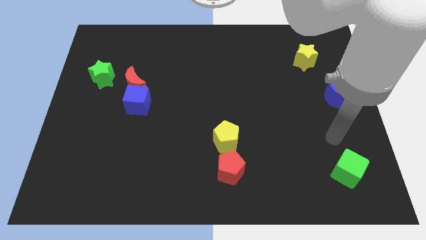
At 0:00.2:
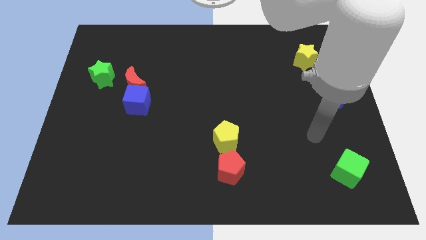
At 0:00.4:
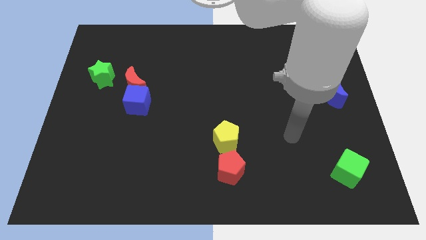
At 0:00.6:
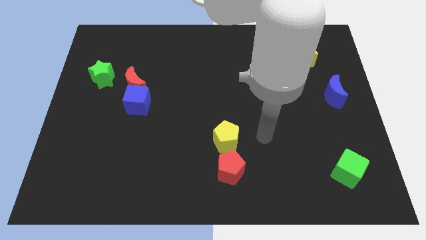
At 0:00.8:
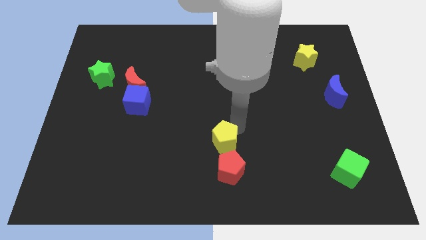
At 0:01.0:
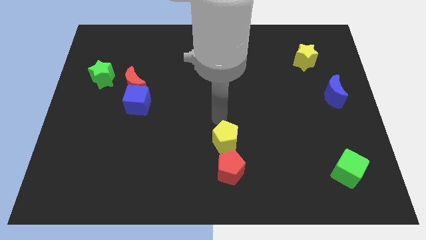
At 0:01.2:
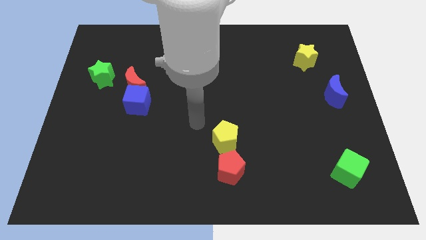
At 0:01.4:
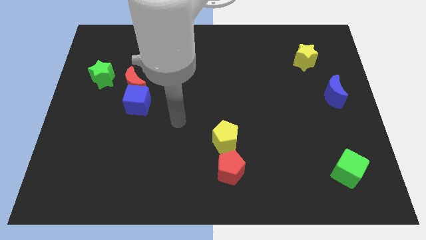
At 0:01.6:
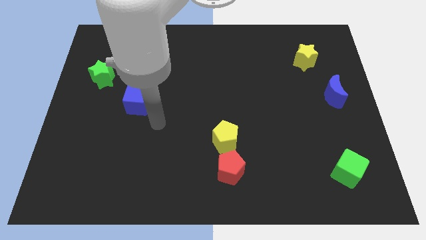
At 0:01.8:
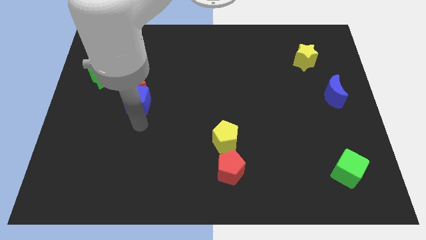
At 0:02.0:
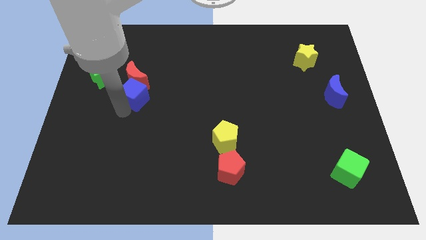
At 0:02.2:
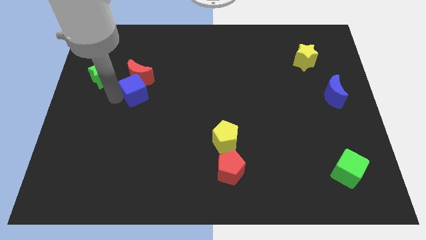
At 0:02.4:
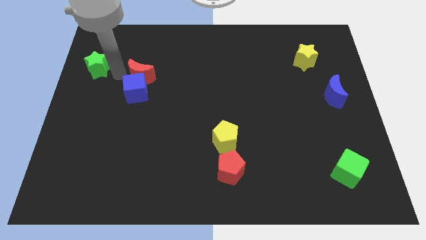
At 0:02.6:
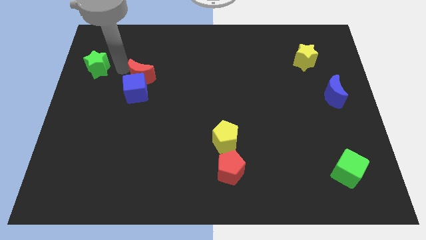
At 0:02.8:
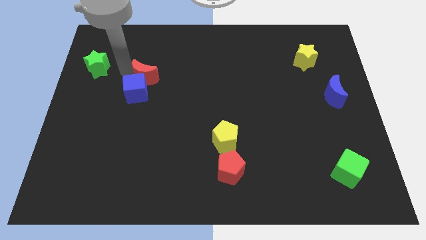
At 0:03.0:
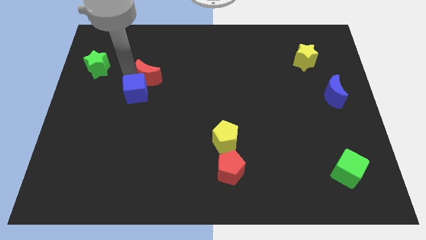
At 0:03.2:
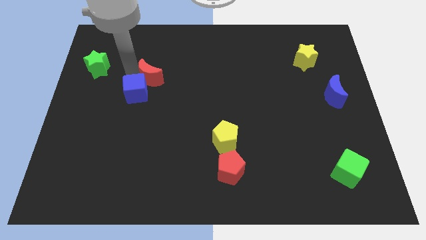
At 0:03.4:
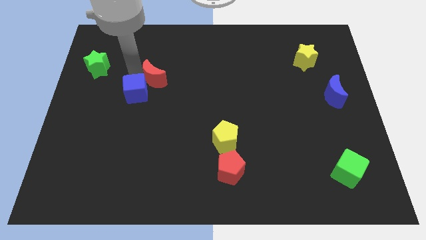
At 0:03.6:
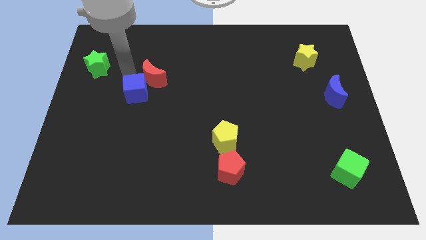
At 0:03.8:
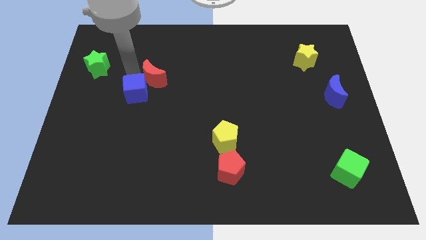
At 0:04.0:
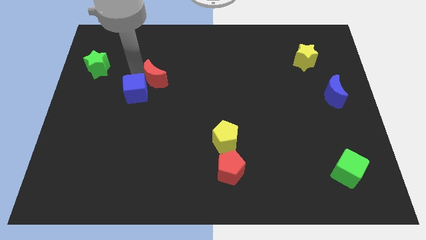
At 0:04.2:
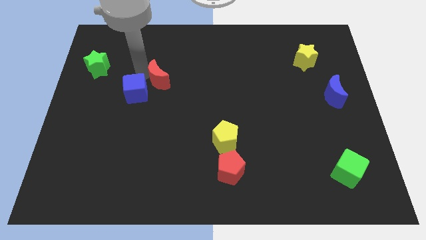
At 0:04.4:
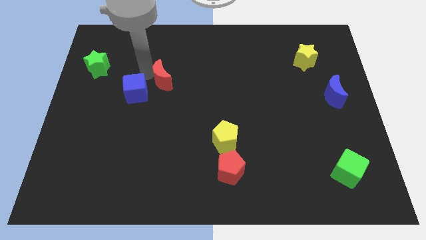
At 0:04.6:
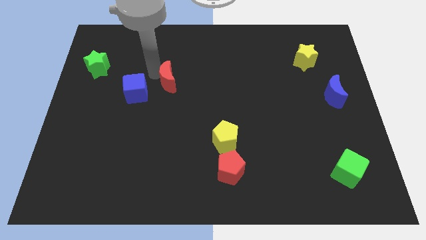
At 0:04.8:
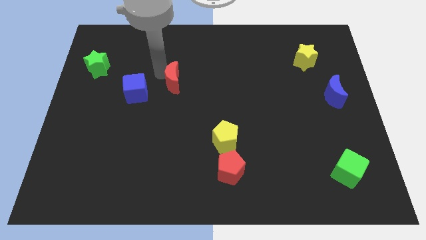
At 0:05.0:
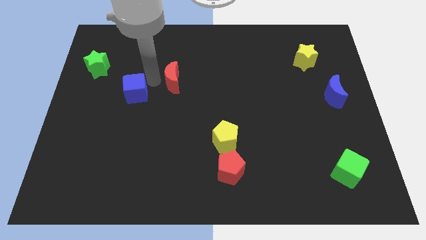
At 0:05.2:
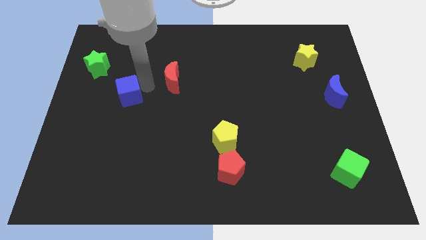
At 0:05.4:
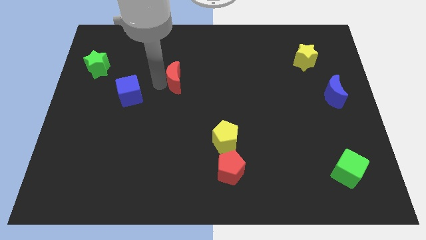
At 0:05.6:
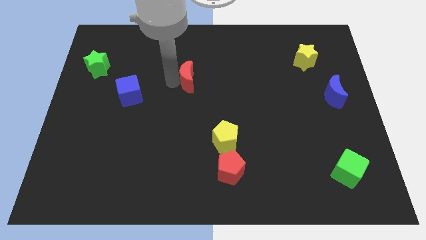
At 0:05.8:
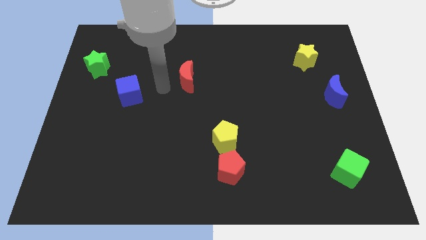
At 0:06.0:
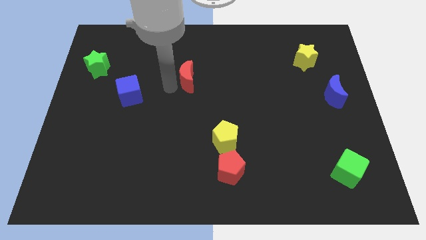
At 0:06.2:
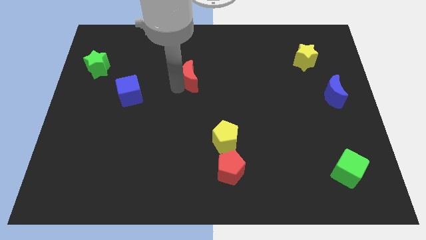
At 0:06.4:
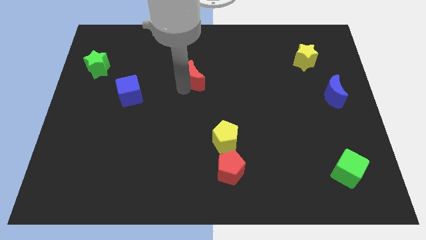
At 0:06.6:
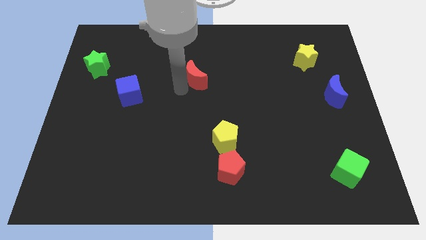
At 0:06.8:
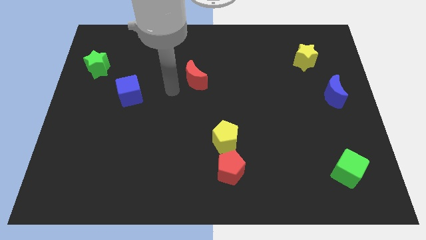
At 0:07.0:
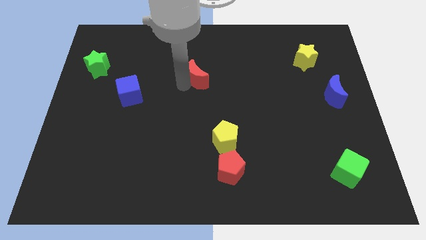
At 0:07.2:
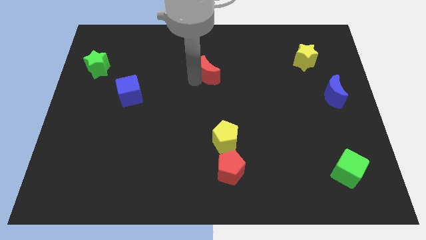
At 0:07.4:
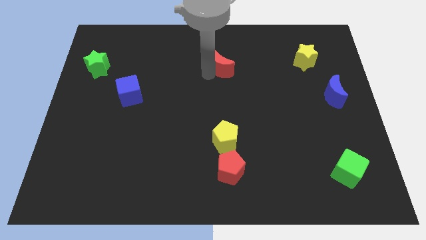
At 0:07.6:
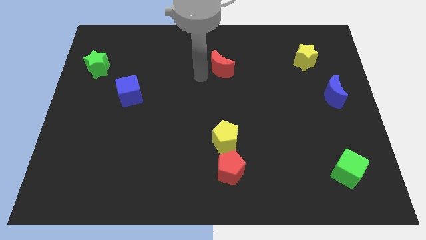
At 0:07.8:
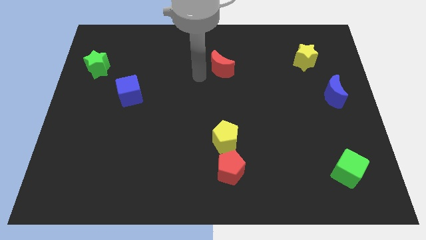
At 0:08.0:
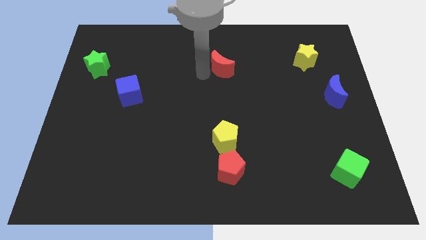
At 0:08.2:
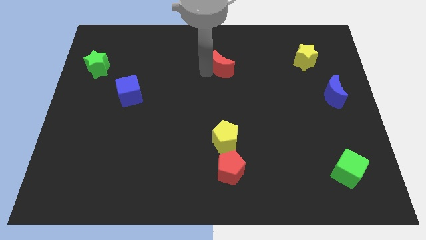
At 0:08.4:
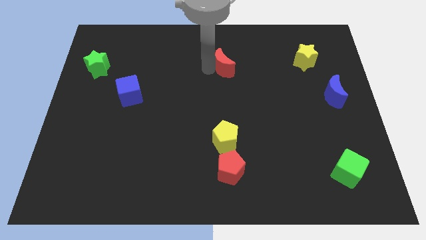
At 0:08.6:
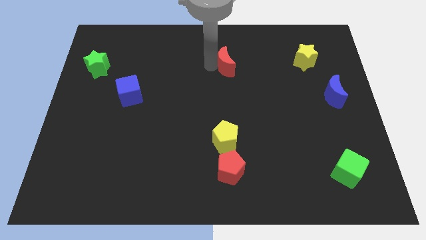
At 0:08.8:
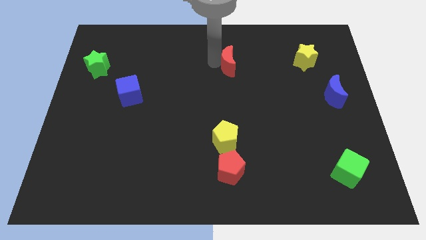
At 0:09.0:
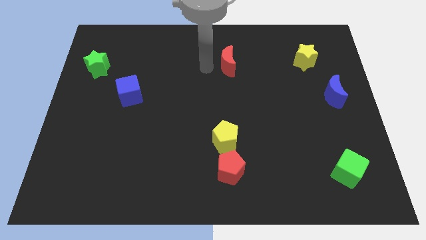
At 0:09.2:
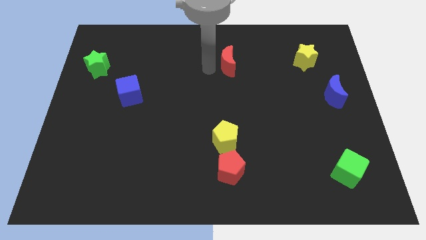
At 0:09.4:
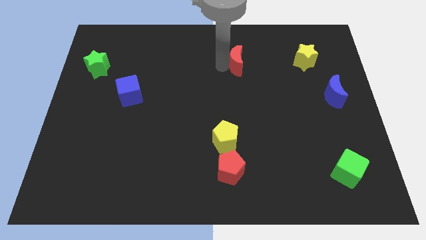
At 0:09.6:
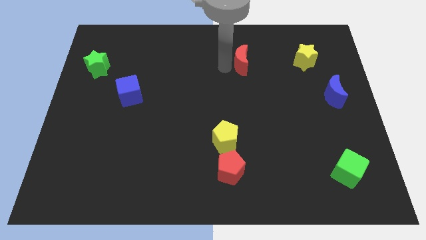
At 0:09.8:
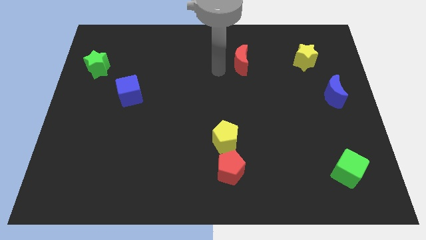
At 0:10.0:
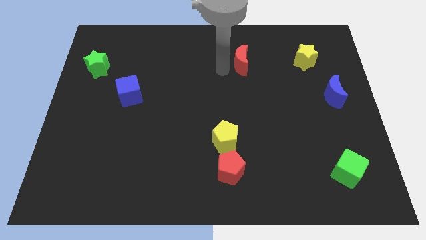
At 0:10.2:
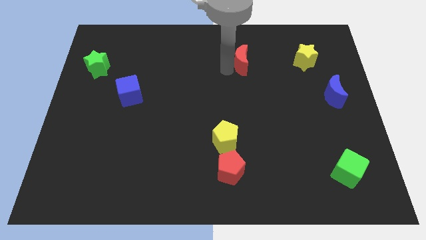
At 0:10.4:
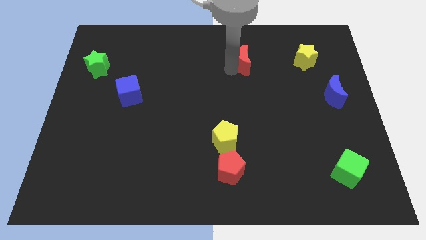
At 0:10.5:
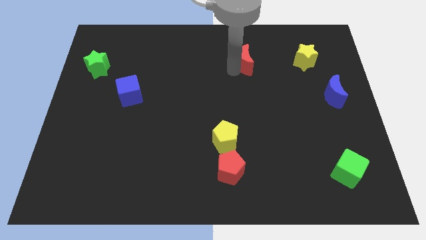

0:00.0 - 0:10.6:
put the red moon just left of the yellow star

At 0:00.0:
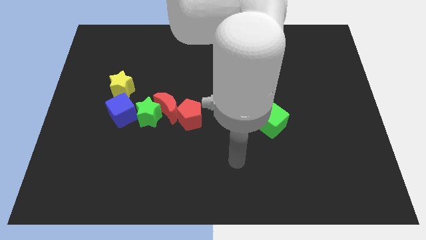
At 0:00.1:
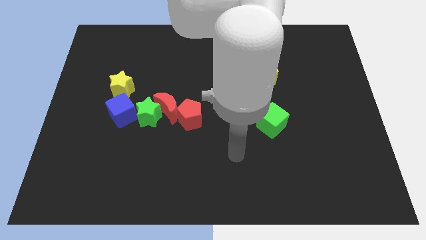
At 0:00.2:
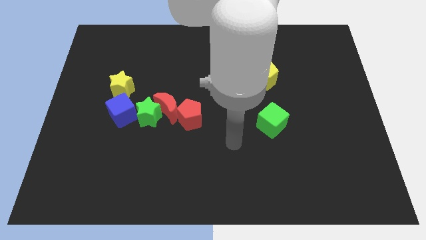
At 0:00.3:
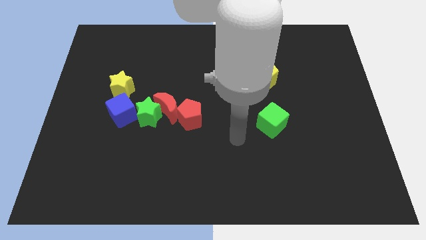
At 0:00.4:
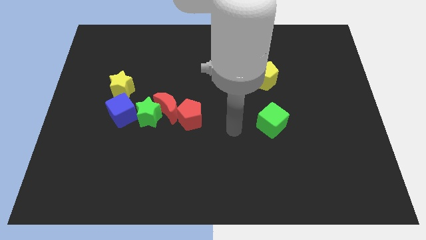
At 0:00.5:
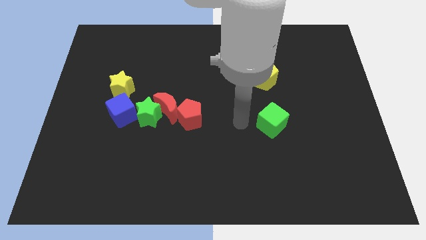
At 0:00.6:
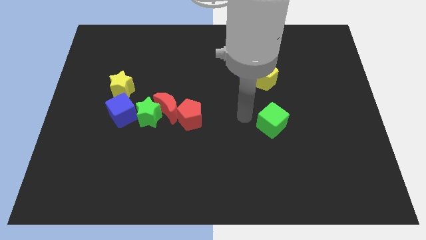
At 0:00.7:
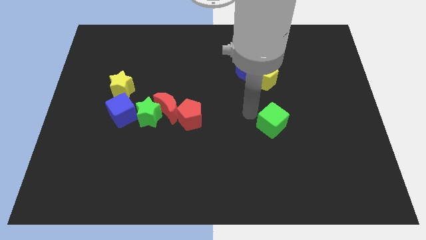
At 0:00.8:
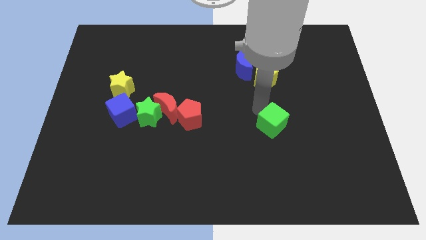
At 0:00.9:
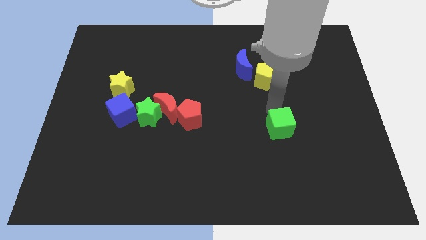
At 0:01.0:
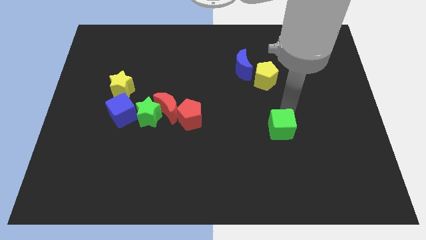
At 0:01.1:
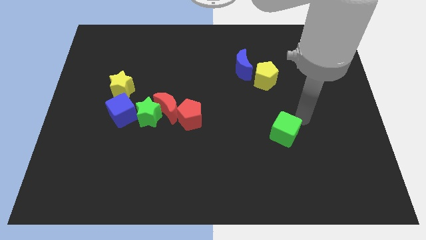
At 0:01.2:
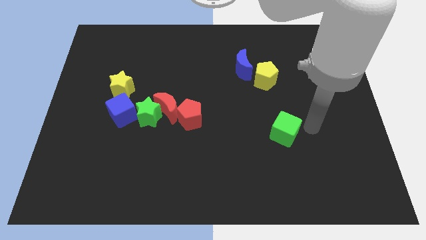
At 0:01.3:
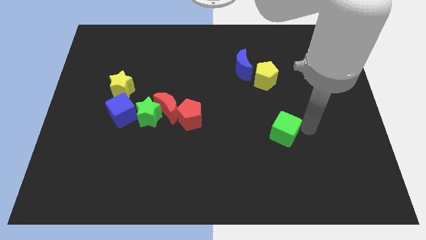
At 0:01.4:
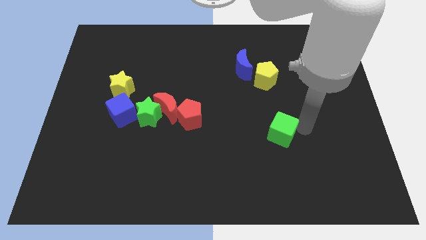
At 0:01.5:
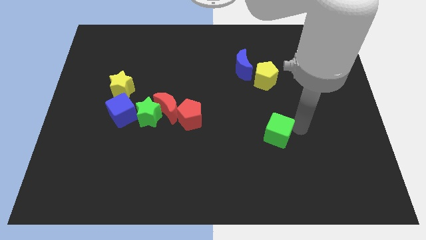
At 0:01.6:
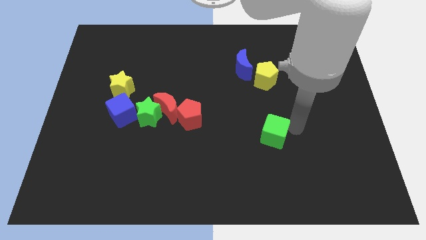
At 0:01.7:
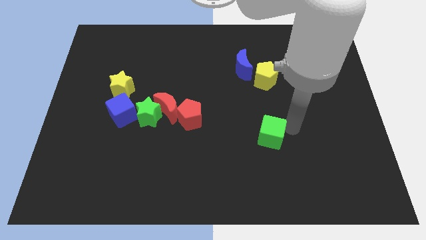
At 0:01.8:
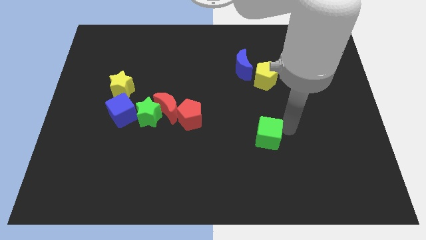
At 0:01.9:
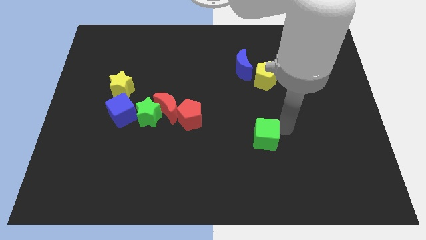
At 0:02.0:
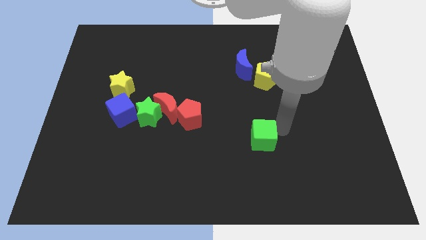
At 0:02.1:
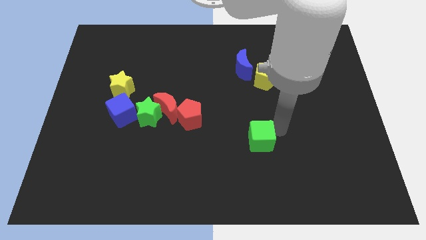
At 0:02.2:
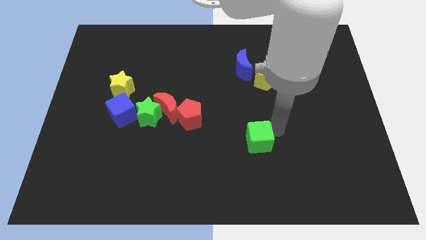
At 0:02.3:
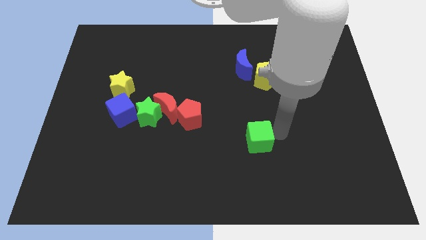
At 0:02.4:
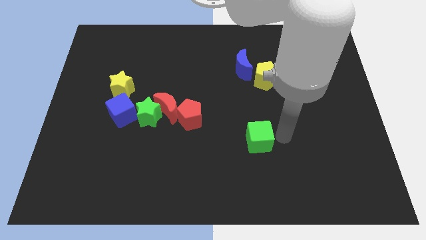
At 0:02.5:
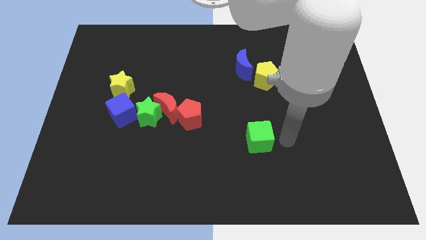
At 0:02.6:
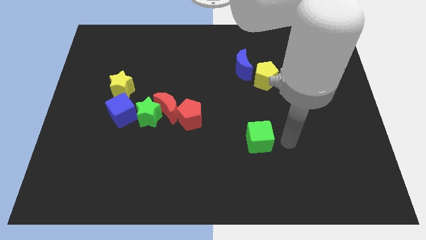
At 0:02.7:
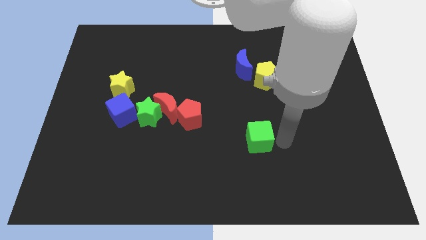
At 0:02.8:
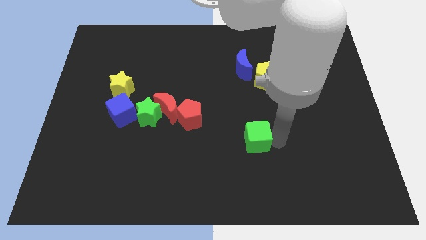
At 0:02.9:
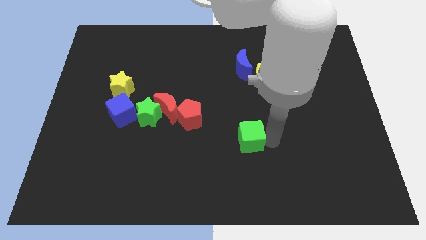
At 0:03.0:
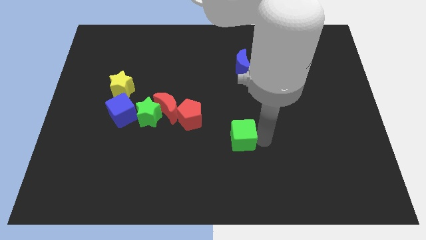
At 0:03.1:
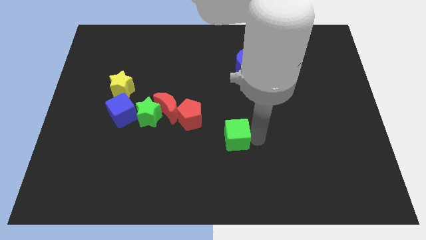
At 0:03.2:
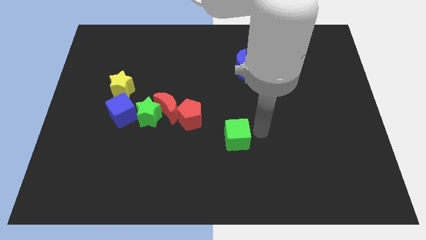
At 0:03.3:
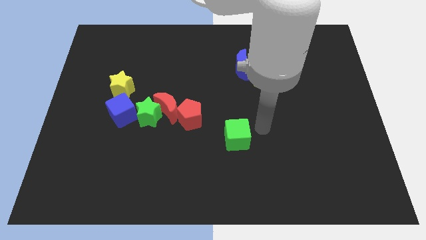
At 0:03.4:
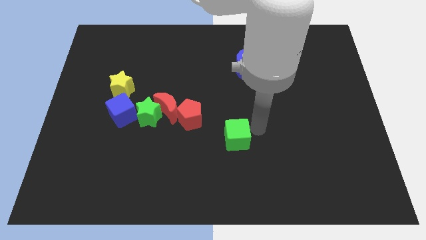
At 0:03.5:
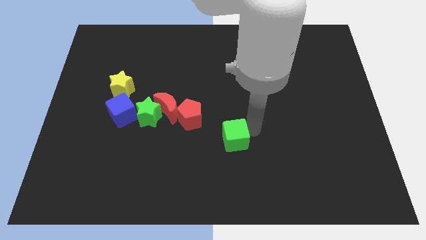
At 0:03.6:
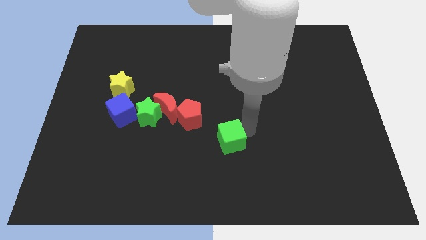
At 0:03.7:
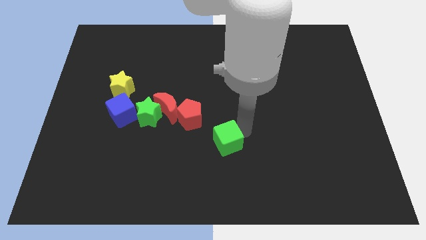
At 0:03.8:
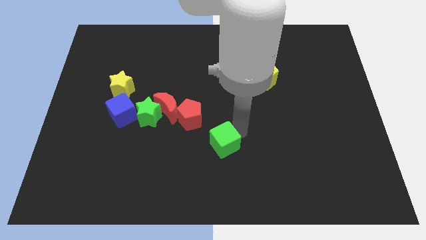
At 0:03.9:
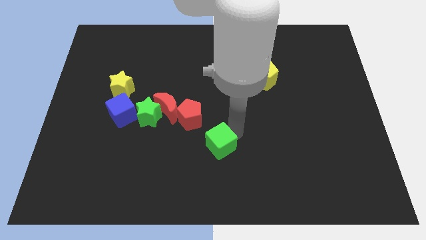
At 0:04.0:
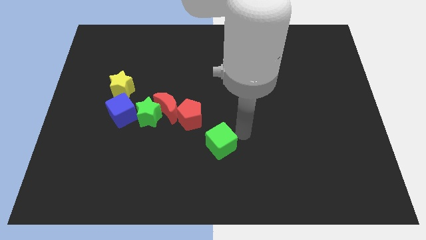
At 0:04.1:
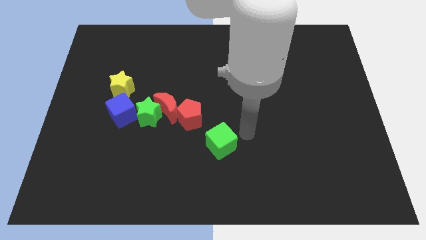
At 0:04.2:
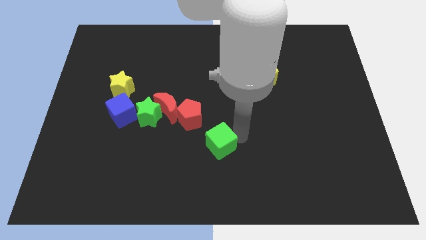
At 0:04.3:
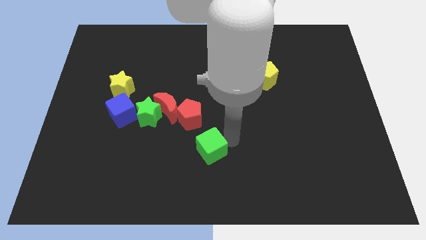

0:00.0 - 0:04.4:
push the green cube to the bottom of the red pentagon
